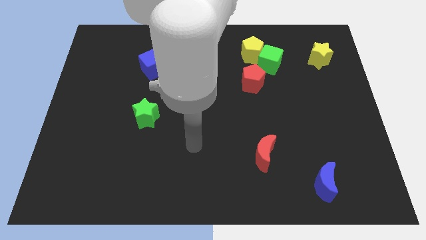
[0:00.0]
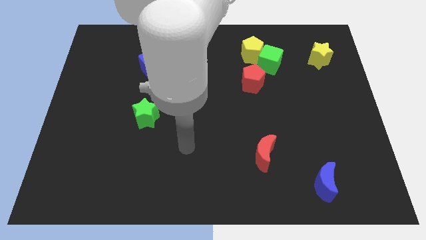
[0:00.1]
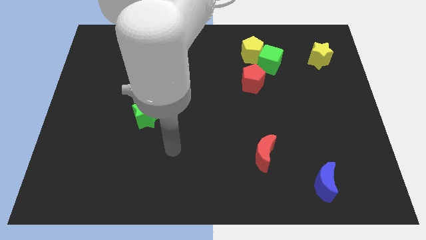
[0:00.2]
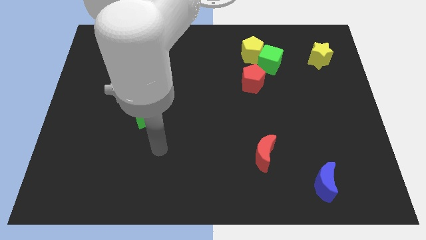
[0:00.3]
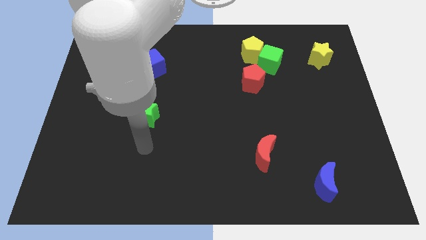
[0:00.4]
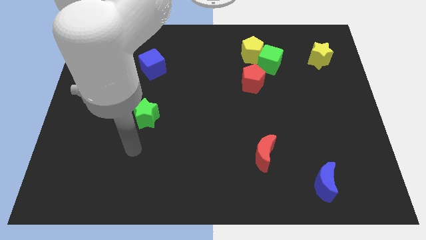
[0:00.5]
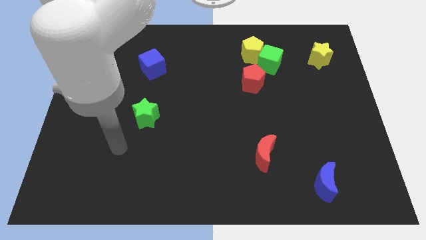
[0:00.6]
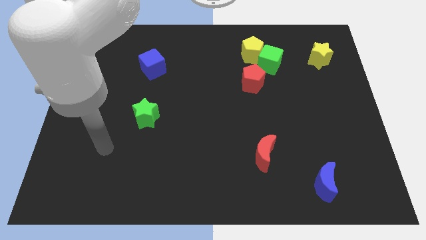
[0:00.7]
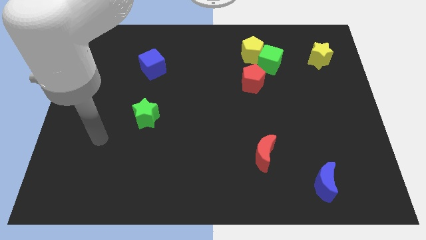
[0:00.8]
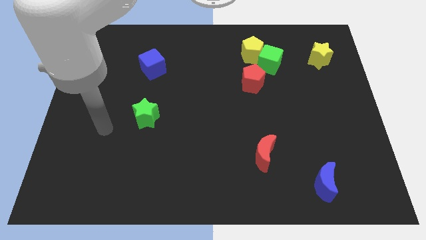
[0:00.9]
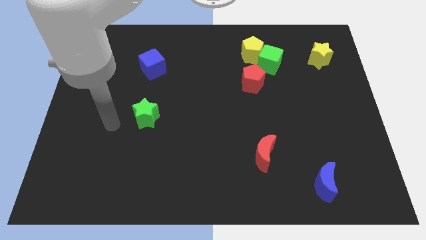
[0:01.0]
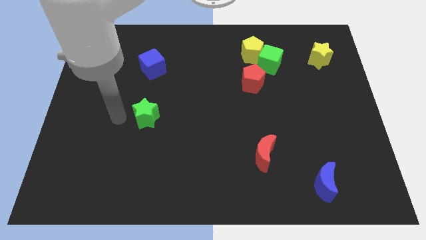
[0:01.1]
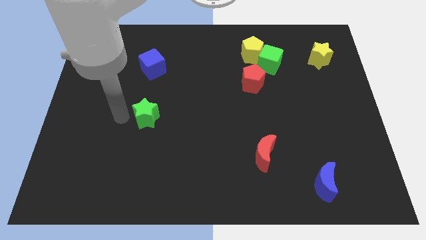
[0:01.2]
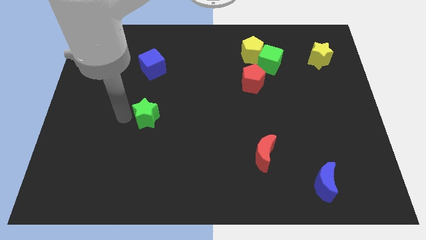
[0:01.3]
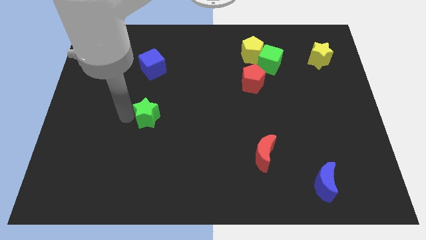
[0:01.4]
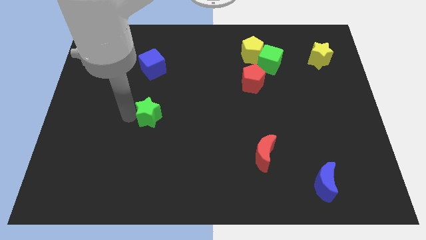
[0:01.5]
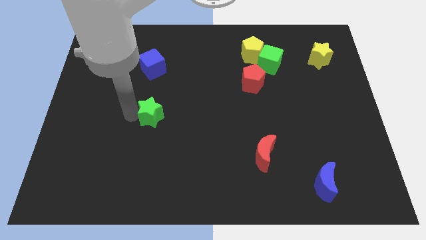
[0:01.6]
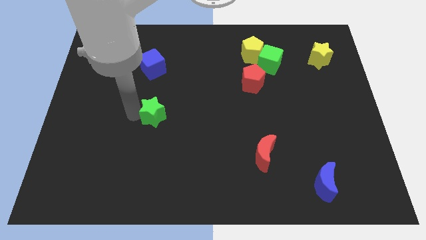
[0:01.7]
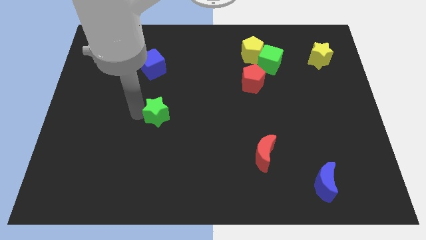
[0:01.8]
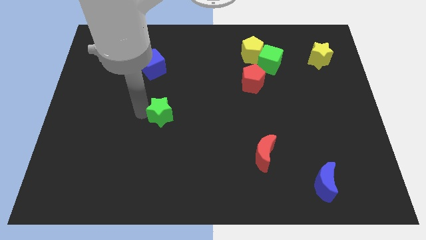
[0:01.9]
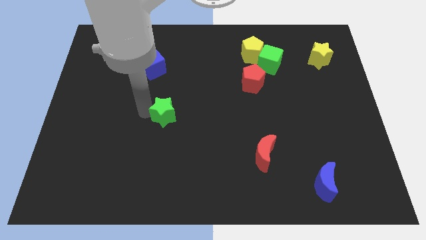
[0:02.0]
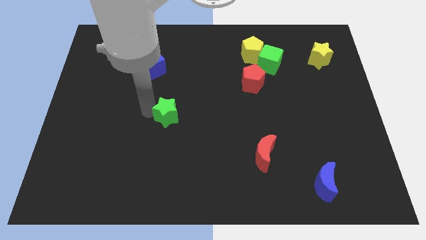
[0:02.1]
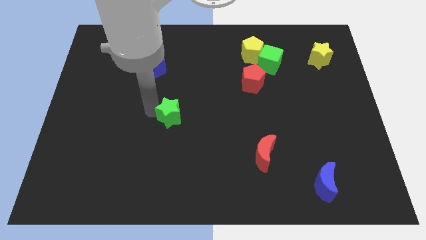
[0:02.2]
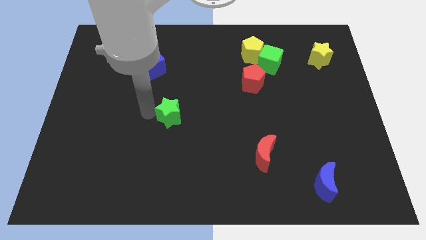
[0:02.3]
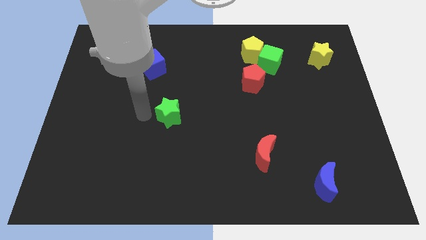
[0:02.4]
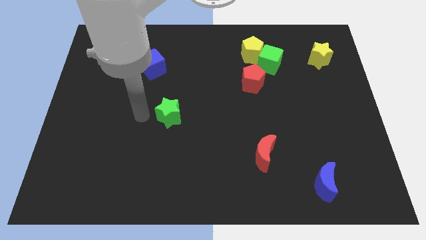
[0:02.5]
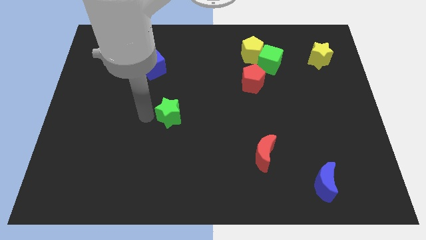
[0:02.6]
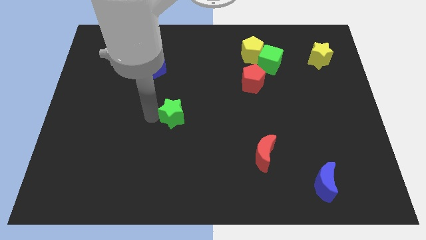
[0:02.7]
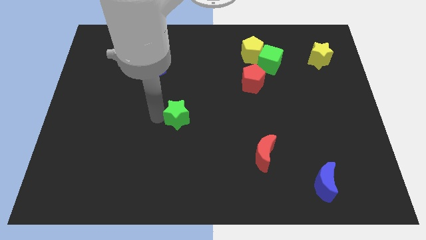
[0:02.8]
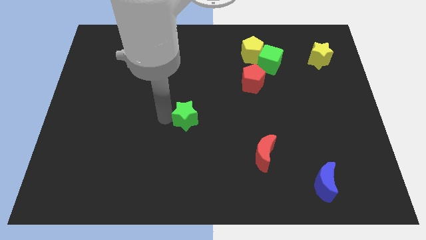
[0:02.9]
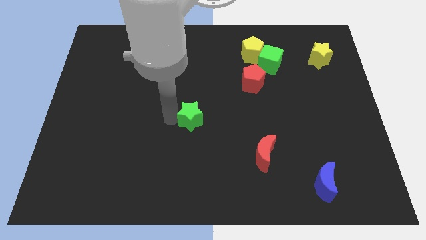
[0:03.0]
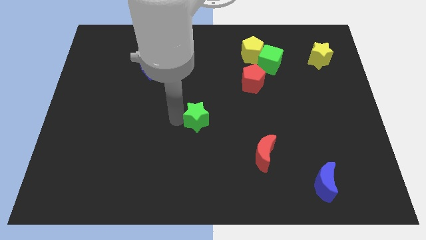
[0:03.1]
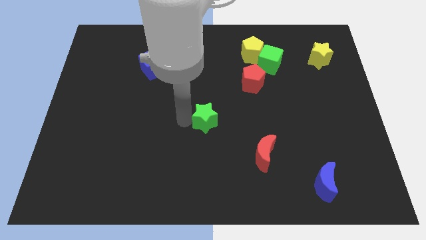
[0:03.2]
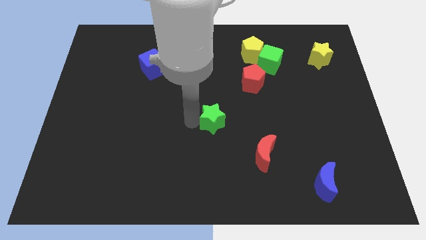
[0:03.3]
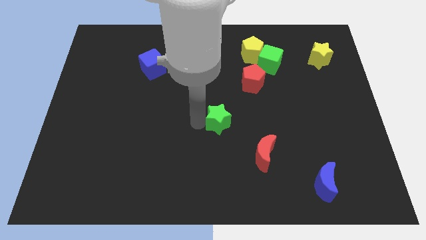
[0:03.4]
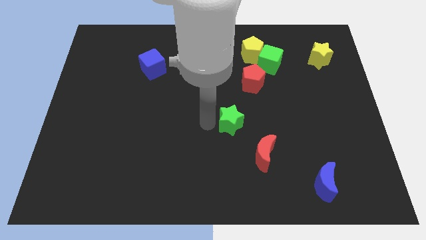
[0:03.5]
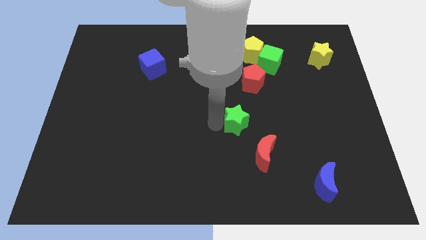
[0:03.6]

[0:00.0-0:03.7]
push the green star to the right

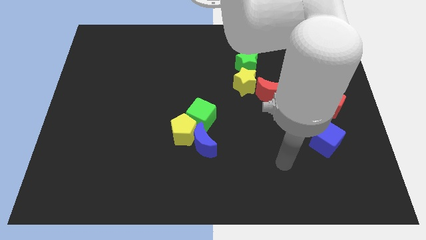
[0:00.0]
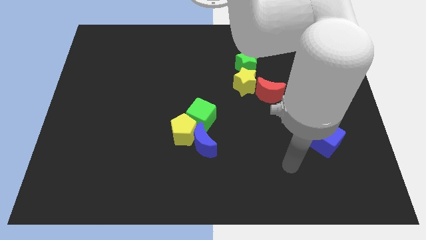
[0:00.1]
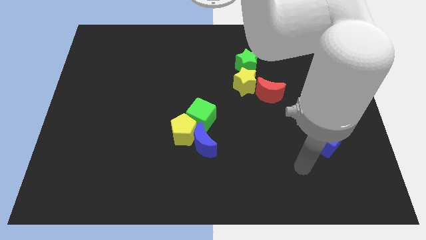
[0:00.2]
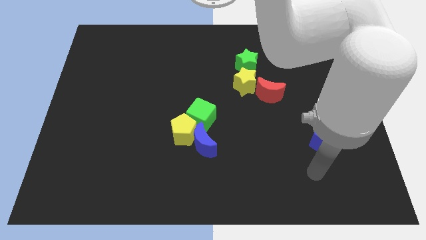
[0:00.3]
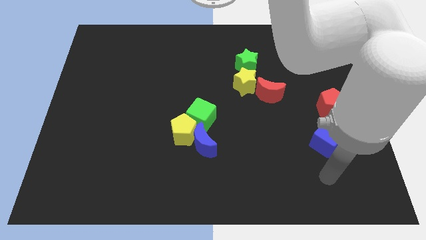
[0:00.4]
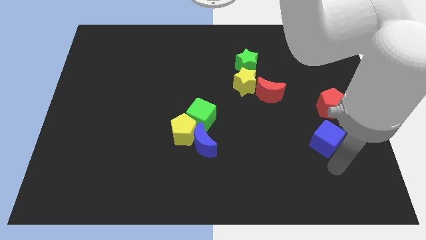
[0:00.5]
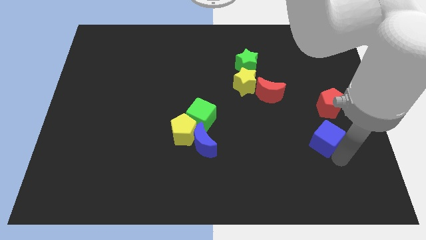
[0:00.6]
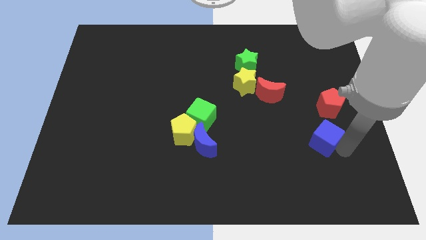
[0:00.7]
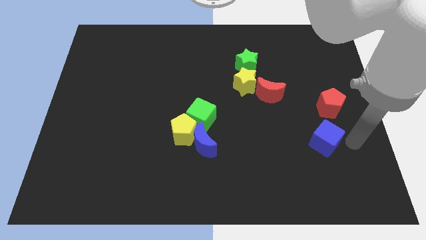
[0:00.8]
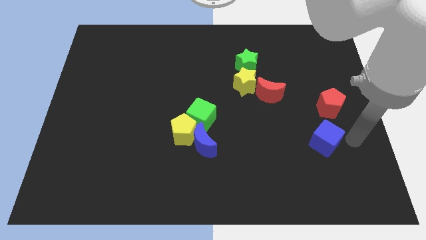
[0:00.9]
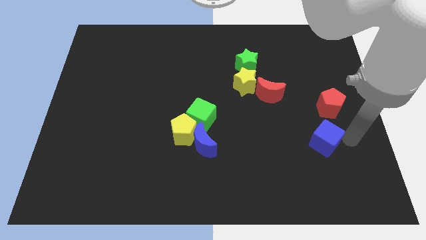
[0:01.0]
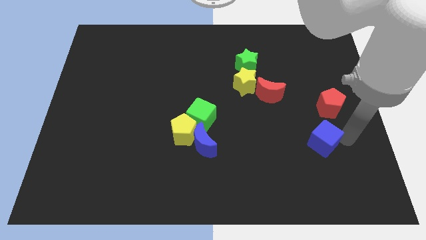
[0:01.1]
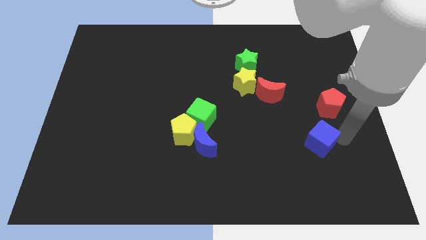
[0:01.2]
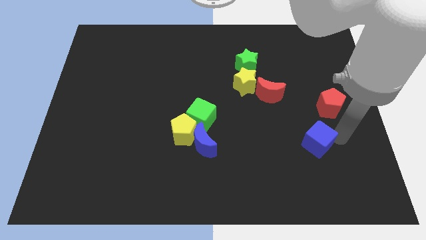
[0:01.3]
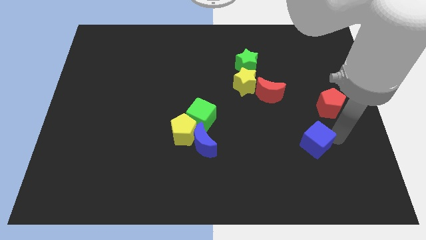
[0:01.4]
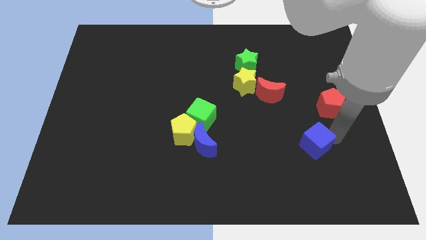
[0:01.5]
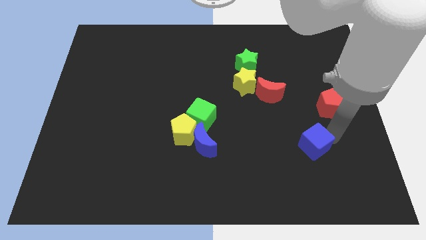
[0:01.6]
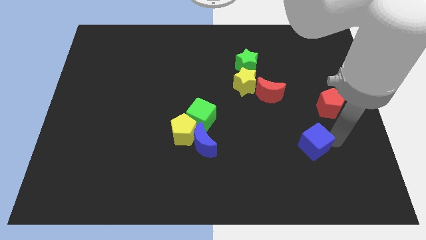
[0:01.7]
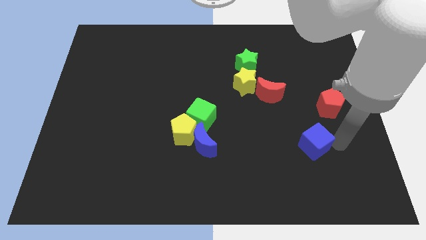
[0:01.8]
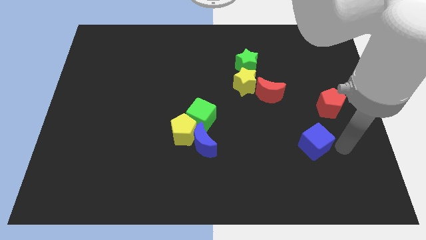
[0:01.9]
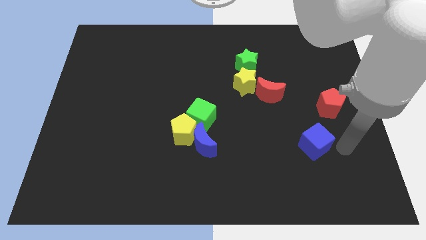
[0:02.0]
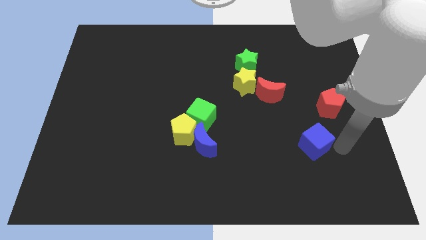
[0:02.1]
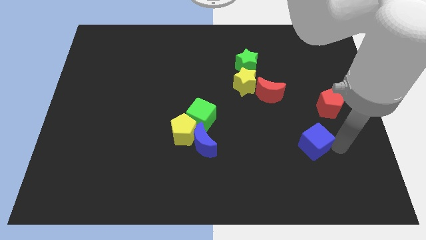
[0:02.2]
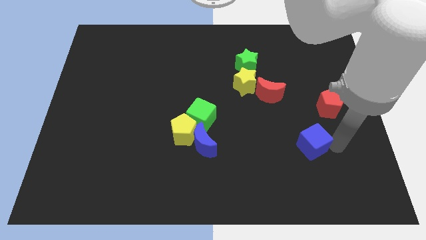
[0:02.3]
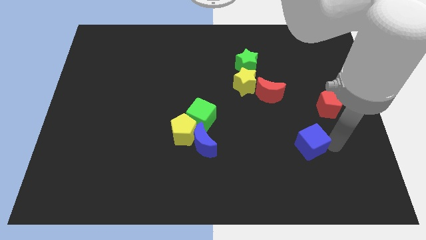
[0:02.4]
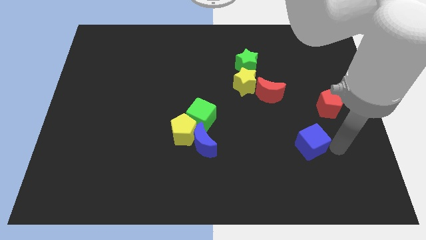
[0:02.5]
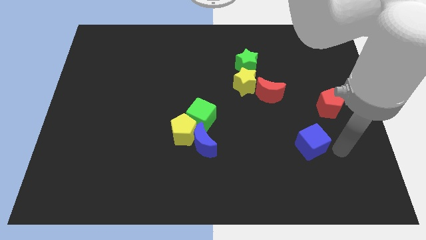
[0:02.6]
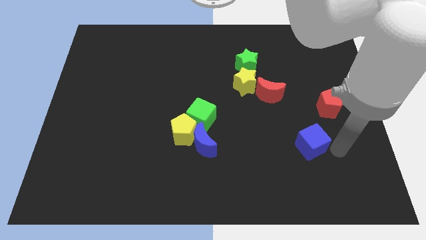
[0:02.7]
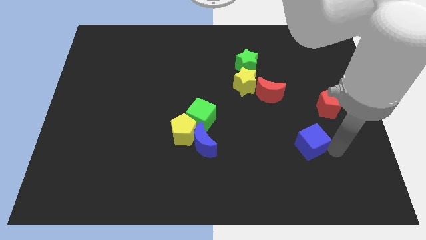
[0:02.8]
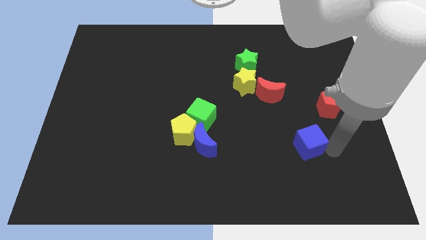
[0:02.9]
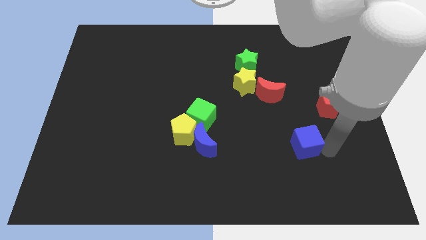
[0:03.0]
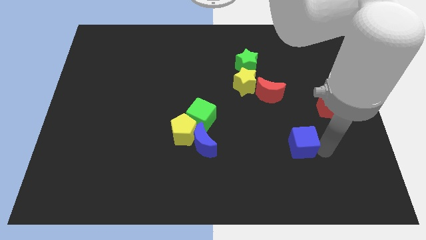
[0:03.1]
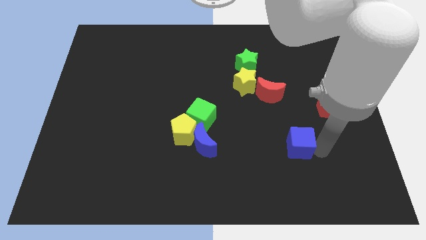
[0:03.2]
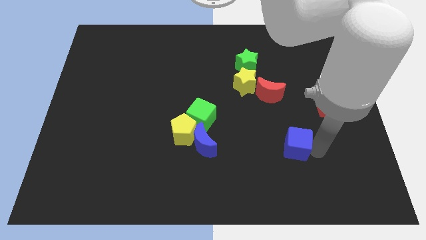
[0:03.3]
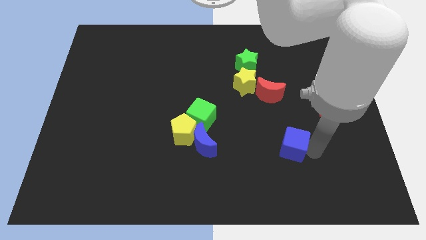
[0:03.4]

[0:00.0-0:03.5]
slightly push the blue cube left

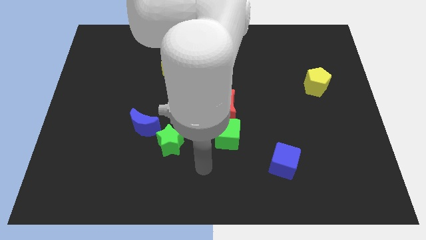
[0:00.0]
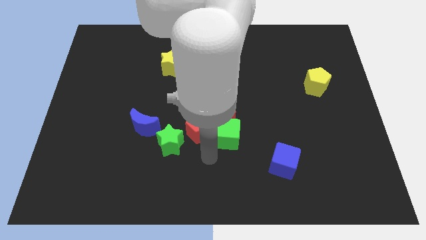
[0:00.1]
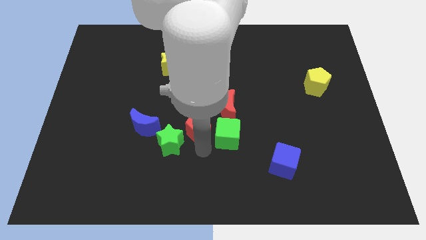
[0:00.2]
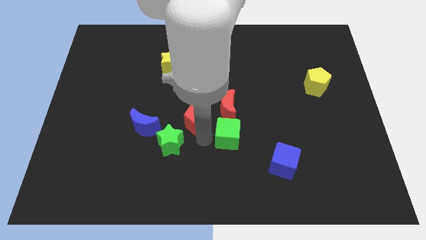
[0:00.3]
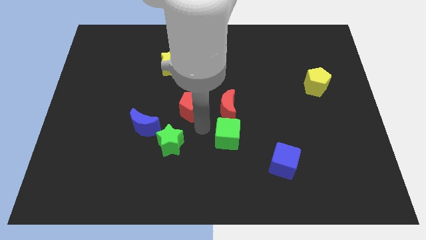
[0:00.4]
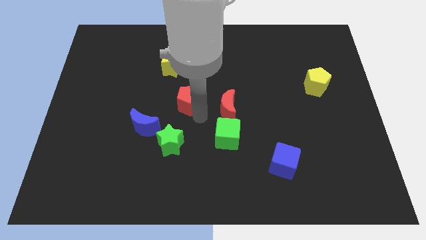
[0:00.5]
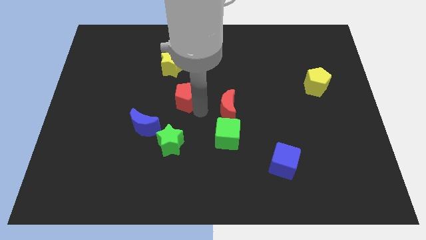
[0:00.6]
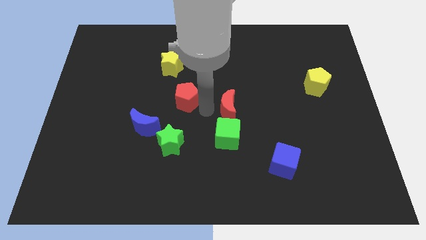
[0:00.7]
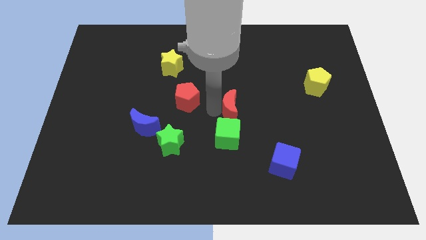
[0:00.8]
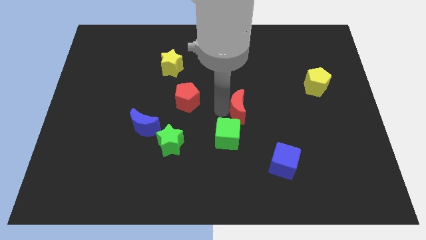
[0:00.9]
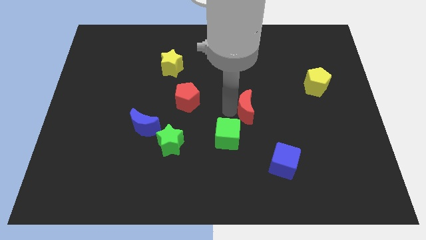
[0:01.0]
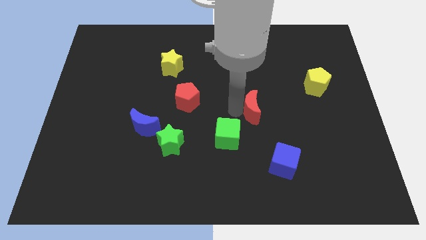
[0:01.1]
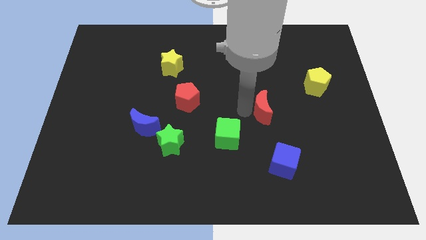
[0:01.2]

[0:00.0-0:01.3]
push the red moon to the right a little bit
